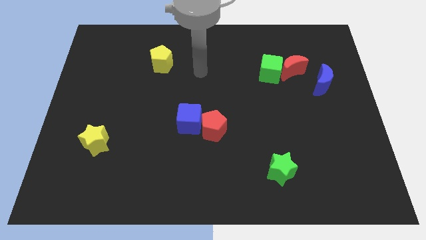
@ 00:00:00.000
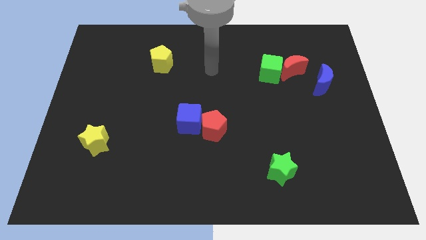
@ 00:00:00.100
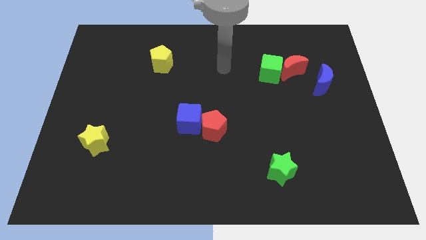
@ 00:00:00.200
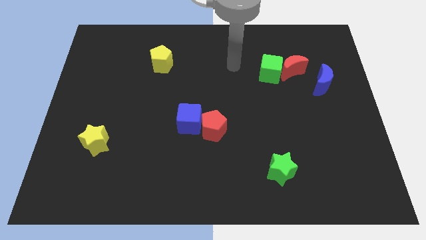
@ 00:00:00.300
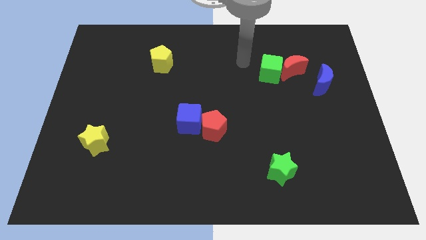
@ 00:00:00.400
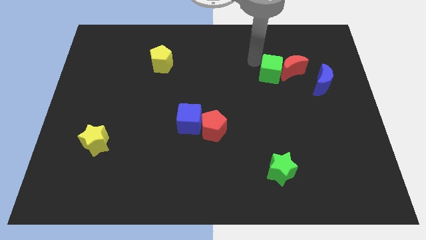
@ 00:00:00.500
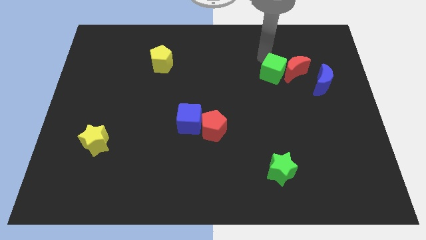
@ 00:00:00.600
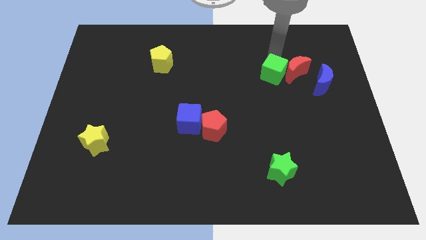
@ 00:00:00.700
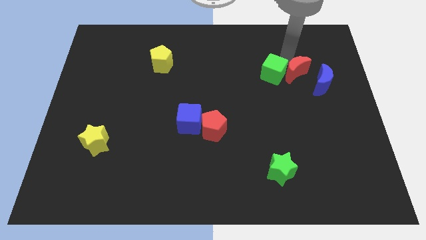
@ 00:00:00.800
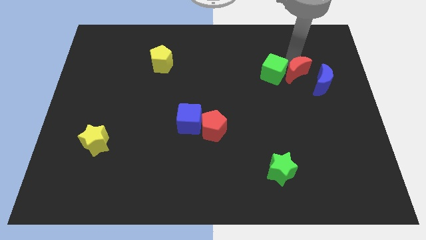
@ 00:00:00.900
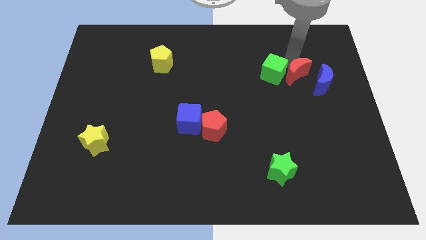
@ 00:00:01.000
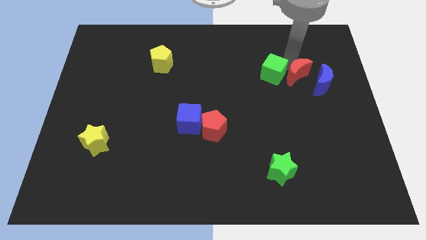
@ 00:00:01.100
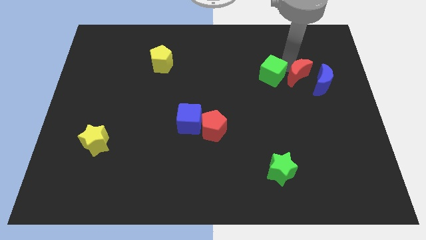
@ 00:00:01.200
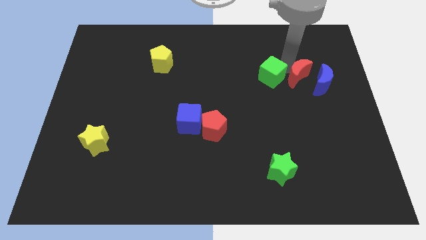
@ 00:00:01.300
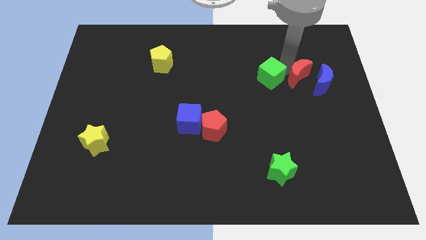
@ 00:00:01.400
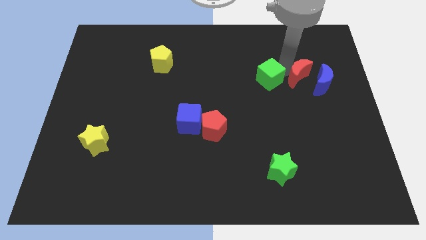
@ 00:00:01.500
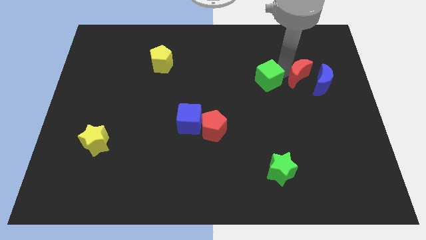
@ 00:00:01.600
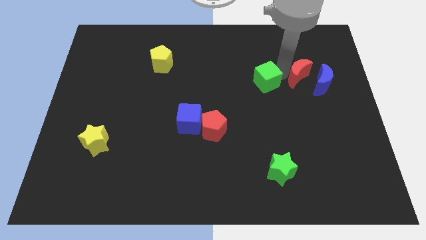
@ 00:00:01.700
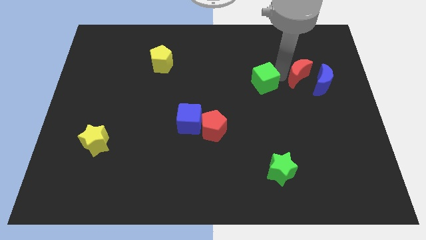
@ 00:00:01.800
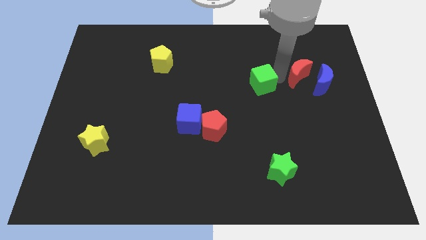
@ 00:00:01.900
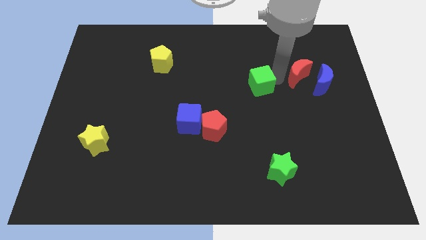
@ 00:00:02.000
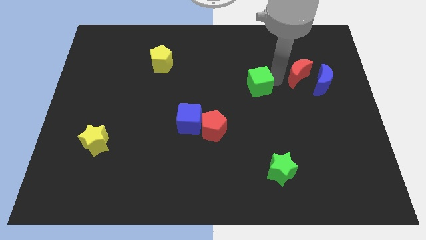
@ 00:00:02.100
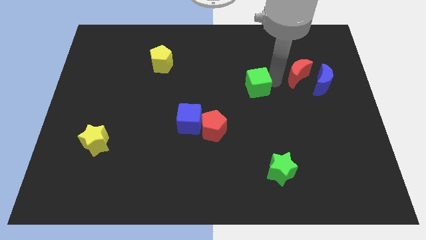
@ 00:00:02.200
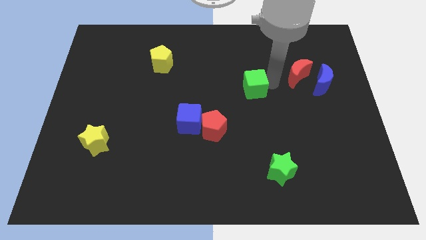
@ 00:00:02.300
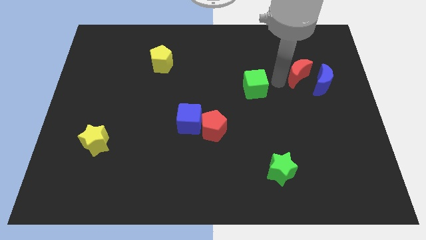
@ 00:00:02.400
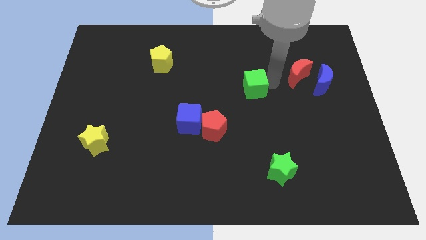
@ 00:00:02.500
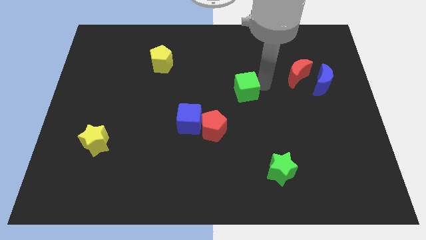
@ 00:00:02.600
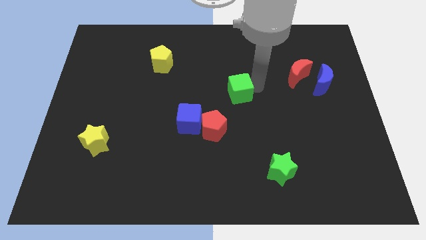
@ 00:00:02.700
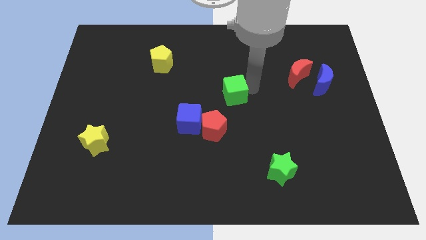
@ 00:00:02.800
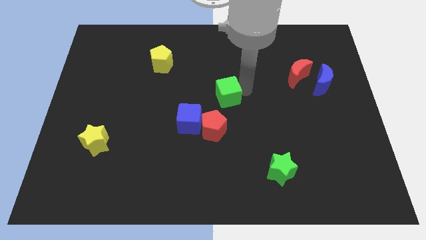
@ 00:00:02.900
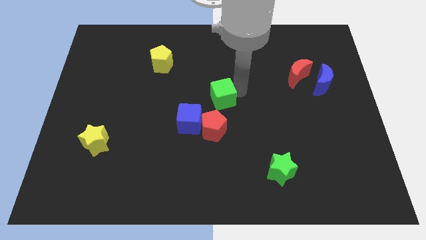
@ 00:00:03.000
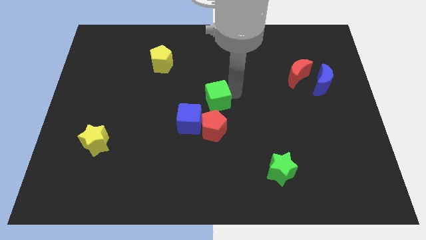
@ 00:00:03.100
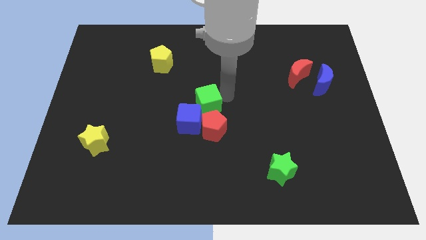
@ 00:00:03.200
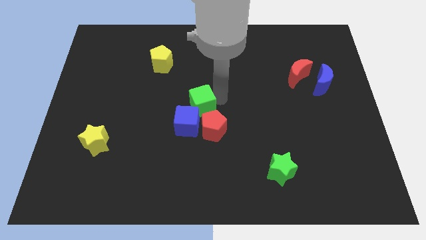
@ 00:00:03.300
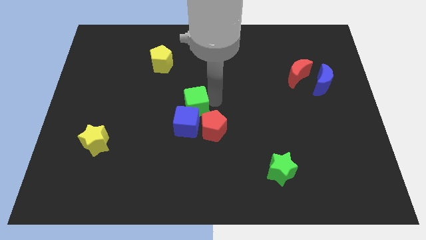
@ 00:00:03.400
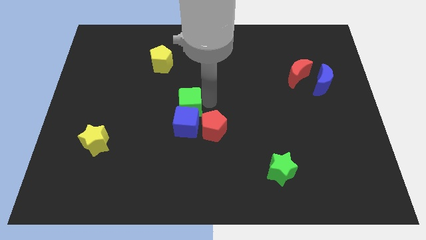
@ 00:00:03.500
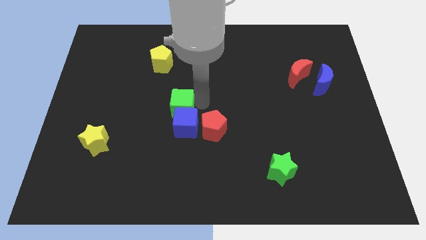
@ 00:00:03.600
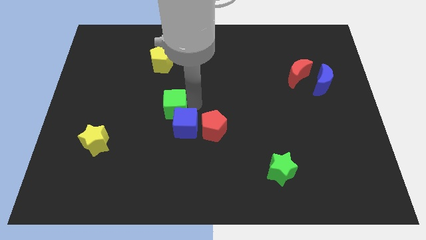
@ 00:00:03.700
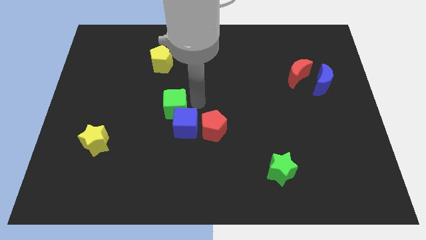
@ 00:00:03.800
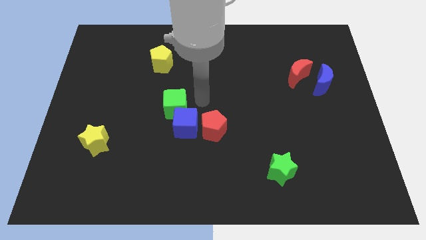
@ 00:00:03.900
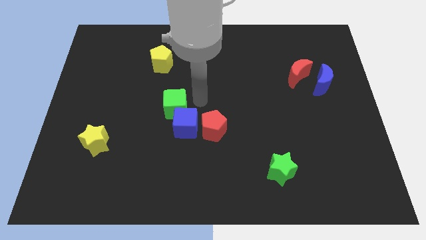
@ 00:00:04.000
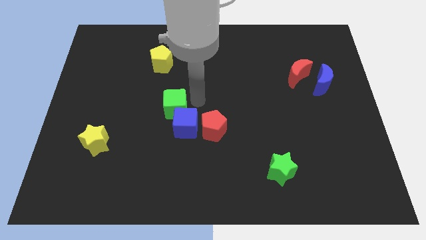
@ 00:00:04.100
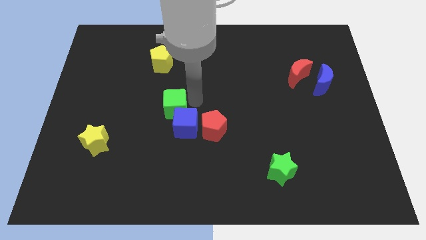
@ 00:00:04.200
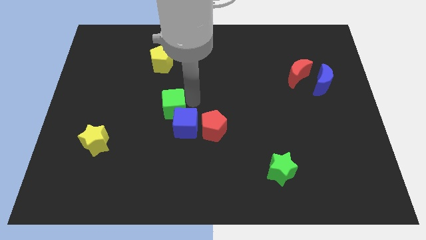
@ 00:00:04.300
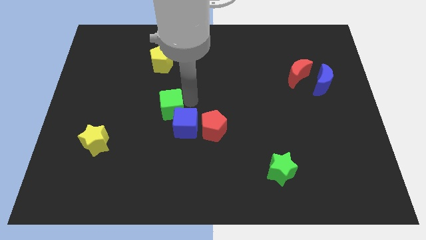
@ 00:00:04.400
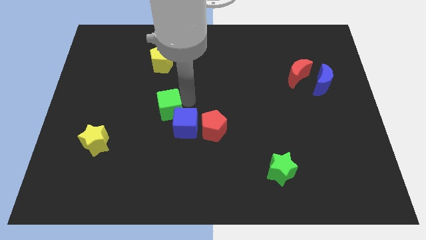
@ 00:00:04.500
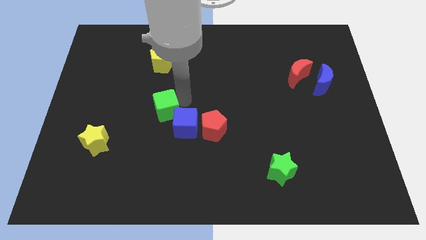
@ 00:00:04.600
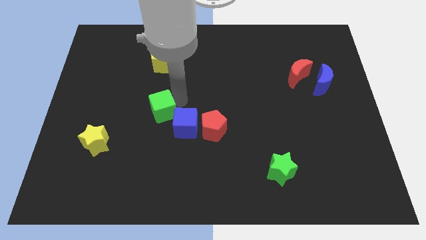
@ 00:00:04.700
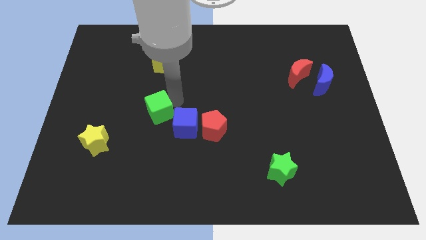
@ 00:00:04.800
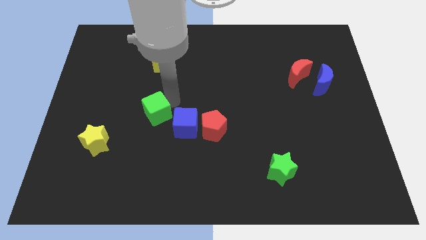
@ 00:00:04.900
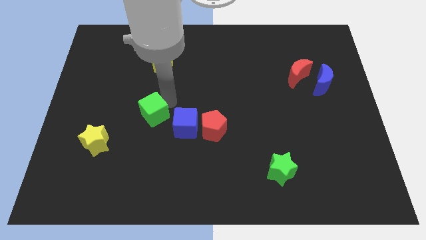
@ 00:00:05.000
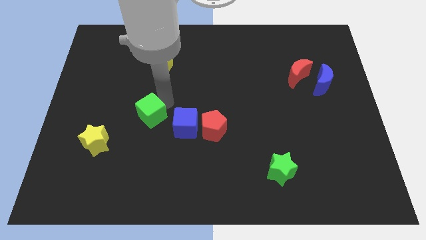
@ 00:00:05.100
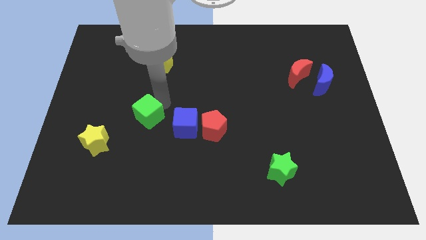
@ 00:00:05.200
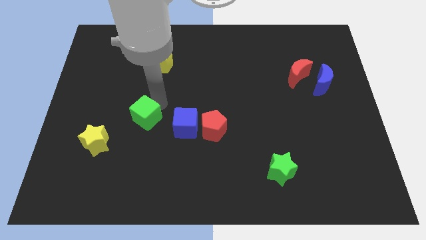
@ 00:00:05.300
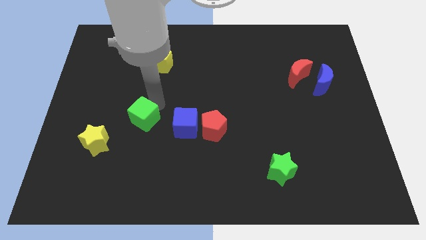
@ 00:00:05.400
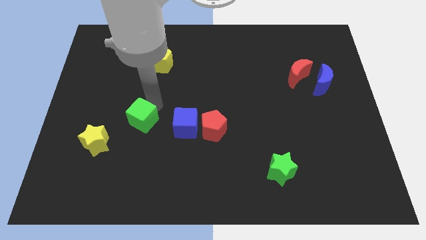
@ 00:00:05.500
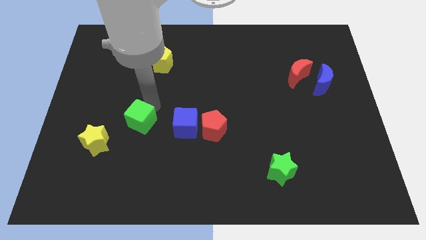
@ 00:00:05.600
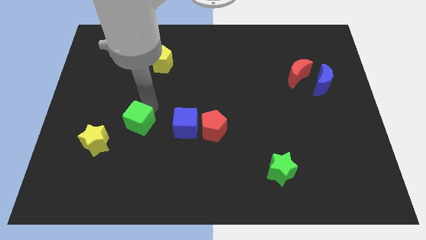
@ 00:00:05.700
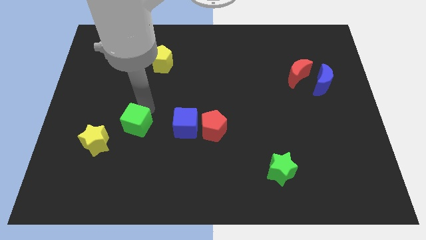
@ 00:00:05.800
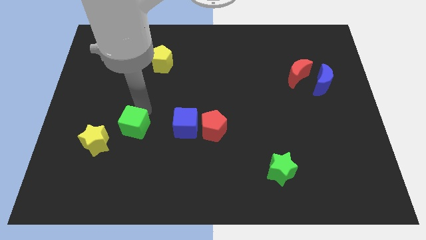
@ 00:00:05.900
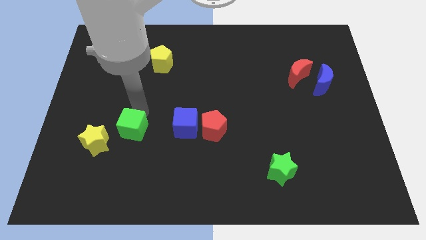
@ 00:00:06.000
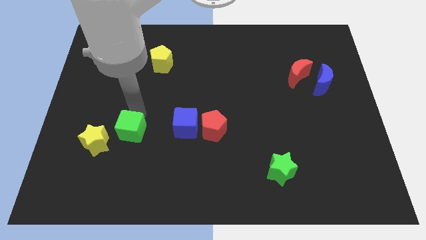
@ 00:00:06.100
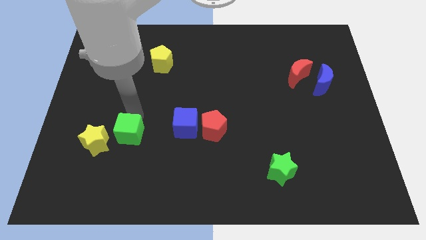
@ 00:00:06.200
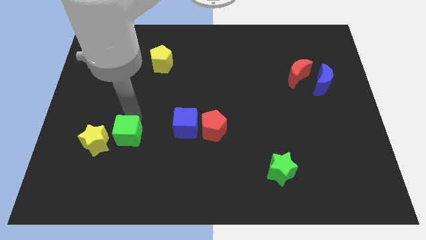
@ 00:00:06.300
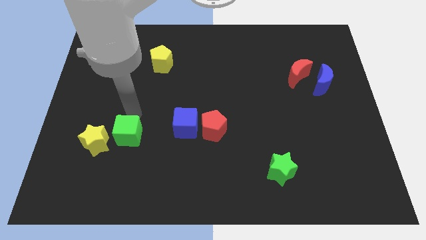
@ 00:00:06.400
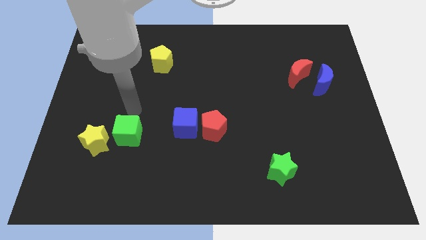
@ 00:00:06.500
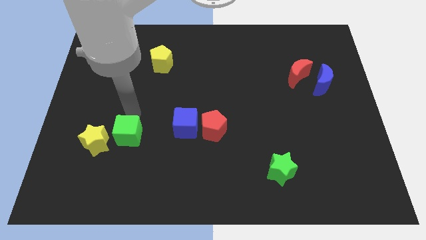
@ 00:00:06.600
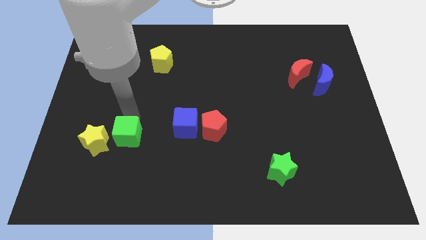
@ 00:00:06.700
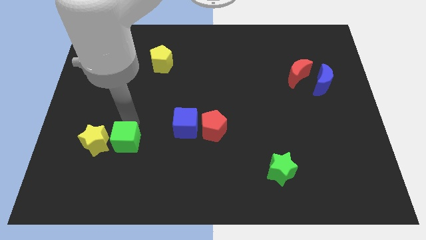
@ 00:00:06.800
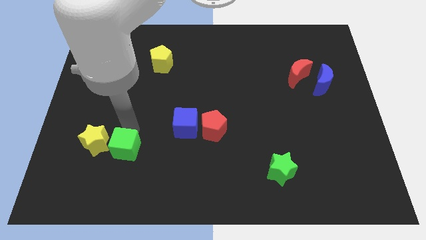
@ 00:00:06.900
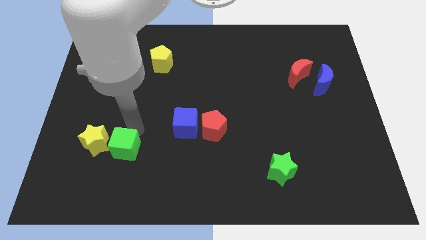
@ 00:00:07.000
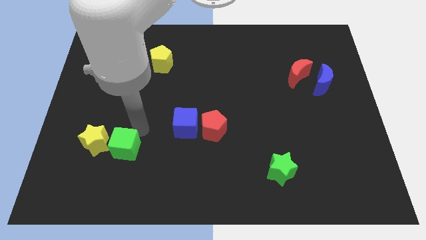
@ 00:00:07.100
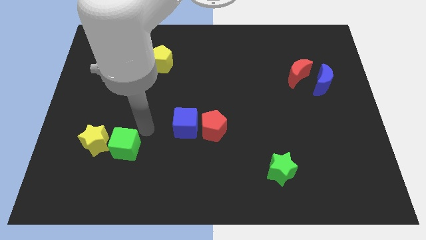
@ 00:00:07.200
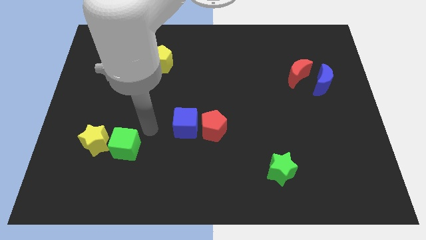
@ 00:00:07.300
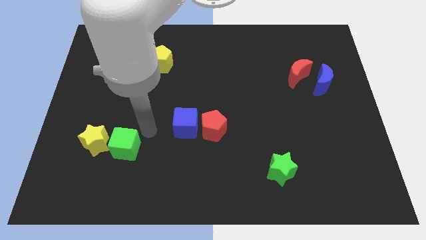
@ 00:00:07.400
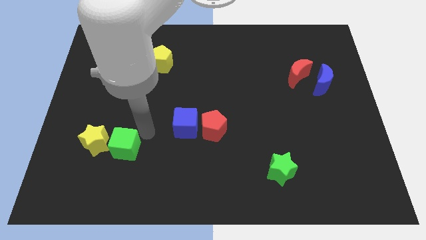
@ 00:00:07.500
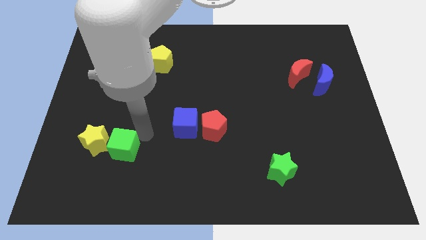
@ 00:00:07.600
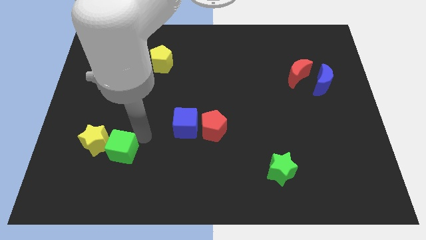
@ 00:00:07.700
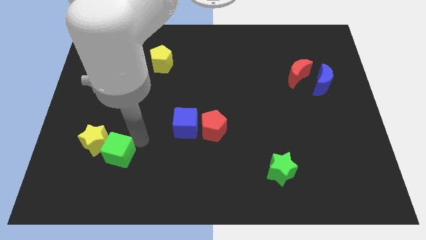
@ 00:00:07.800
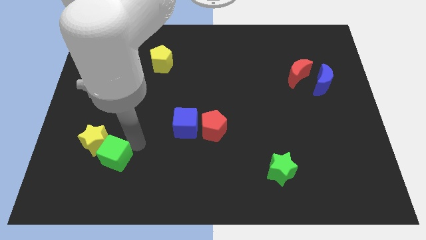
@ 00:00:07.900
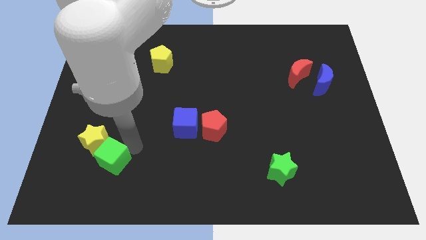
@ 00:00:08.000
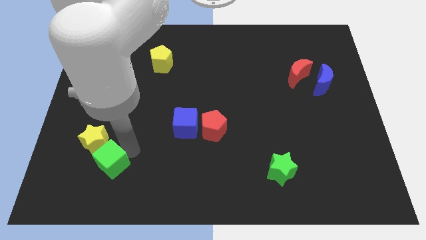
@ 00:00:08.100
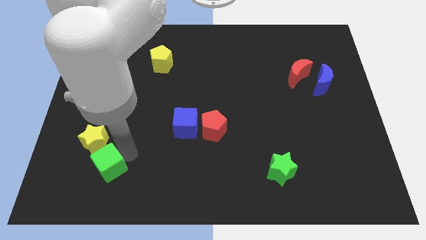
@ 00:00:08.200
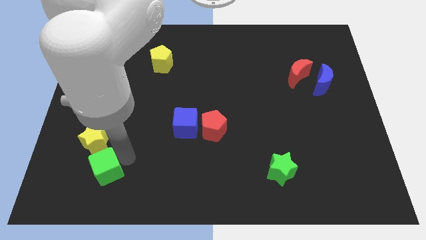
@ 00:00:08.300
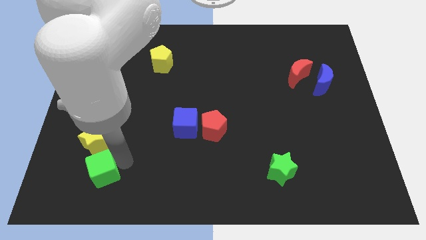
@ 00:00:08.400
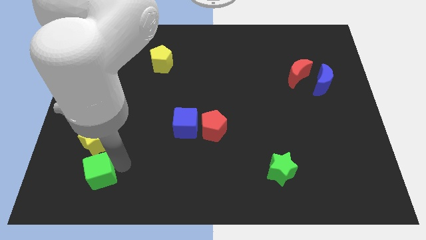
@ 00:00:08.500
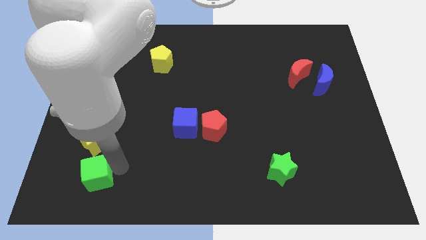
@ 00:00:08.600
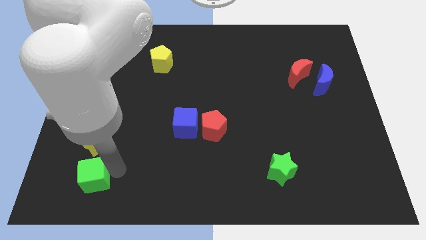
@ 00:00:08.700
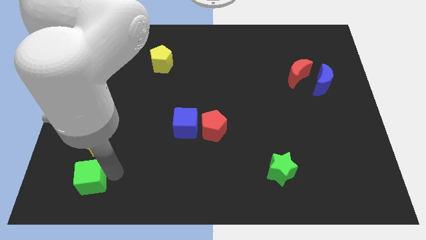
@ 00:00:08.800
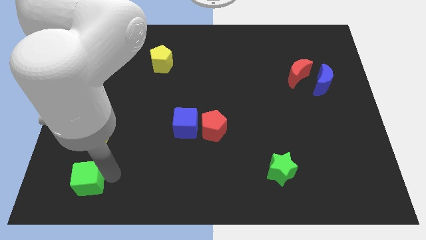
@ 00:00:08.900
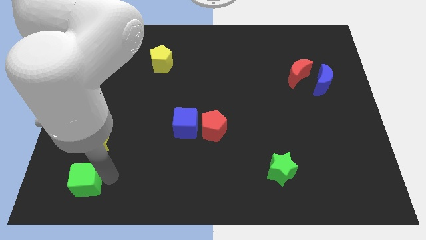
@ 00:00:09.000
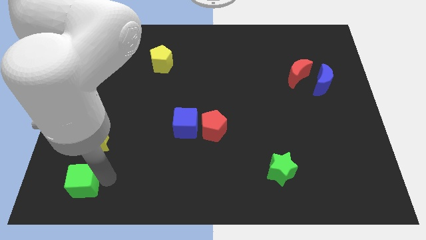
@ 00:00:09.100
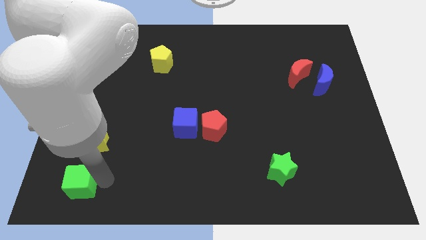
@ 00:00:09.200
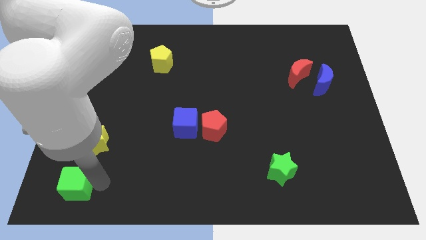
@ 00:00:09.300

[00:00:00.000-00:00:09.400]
move the green cube to the bottom left of the board
